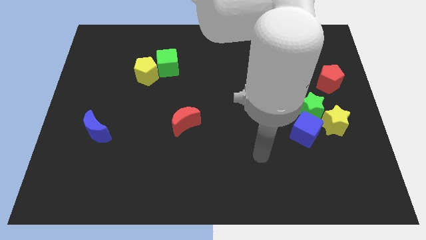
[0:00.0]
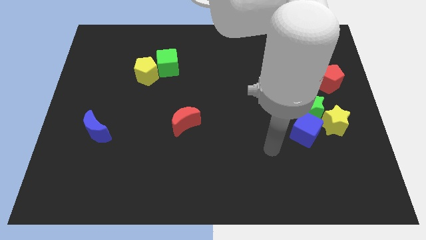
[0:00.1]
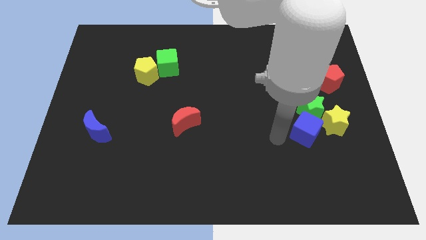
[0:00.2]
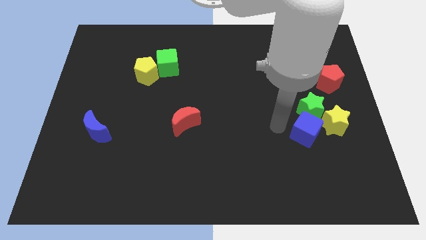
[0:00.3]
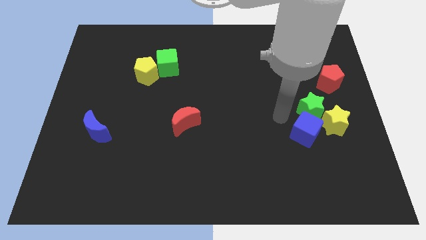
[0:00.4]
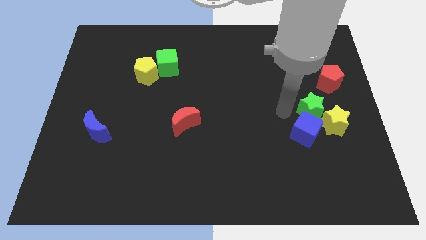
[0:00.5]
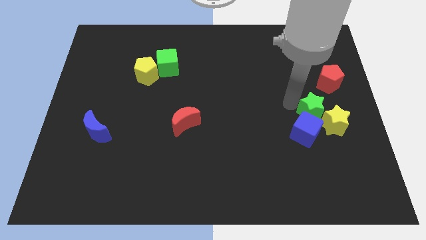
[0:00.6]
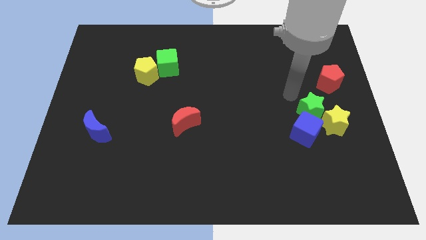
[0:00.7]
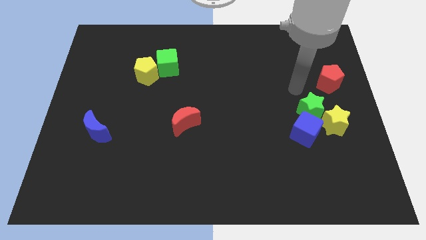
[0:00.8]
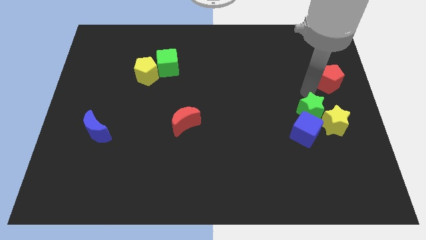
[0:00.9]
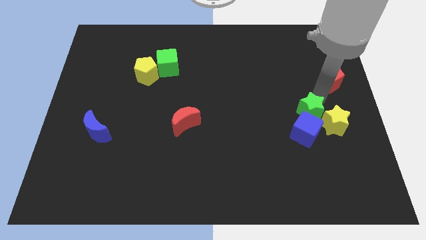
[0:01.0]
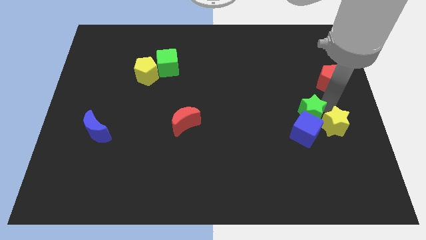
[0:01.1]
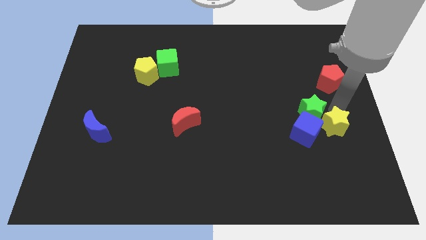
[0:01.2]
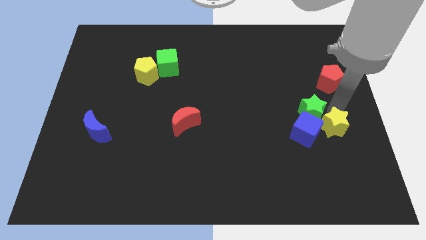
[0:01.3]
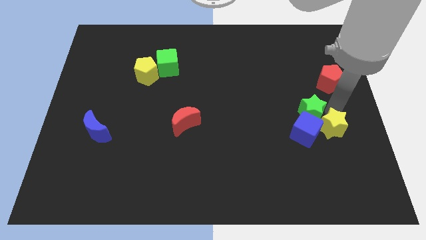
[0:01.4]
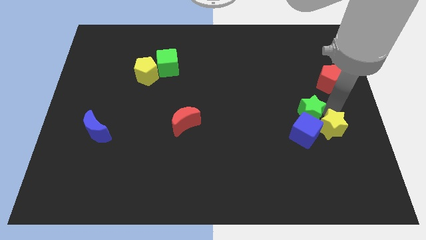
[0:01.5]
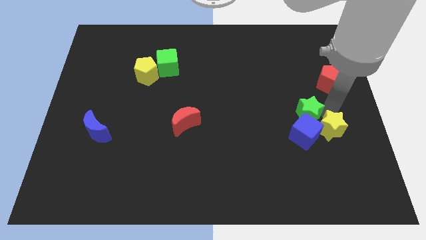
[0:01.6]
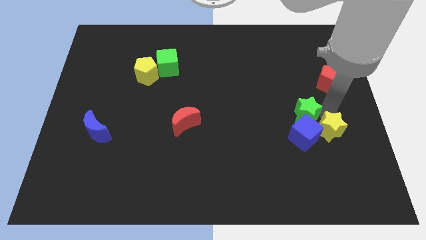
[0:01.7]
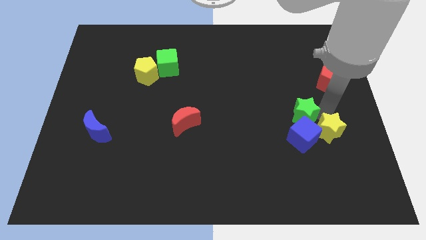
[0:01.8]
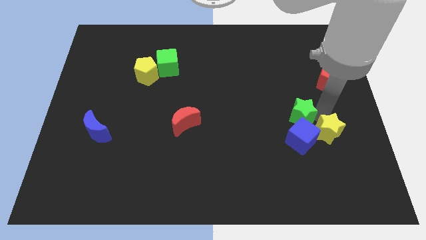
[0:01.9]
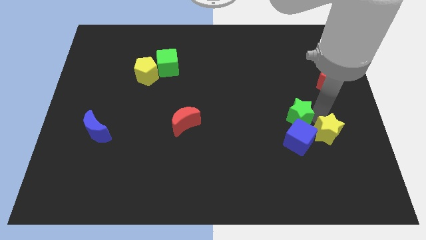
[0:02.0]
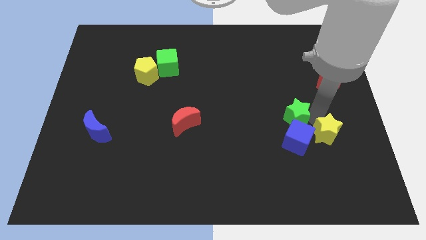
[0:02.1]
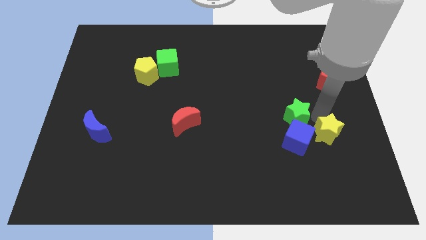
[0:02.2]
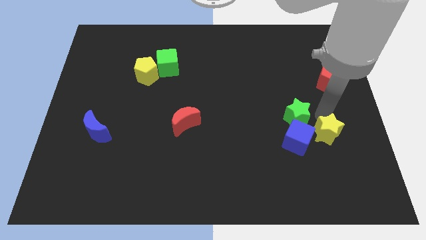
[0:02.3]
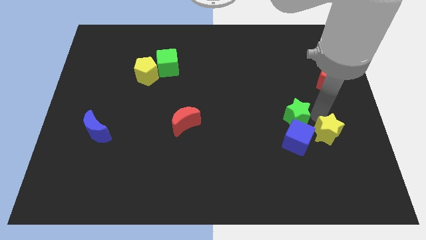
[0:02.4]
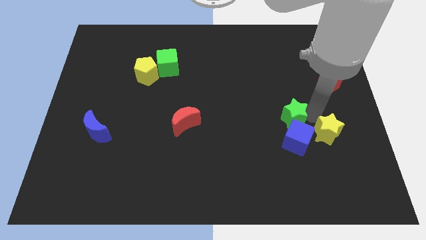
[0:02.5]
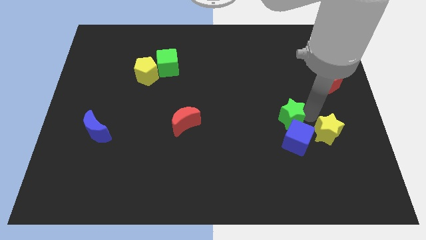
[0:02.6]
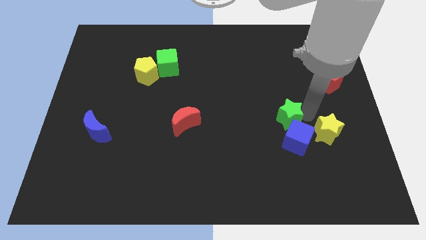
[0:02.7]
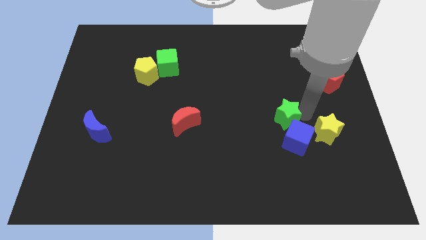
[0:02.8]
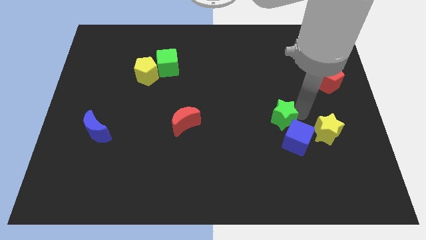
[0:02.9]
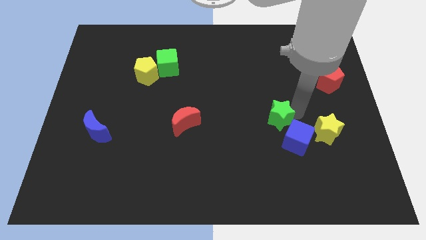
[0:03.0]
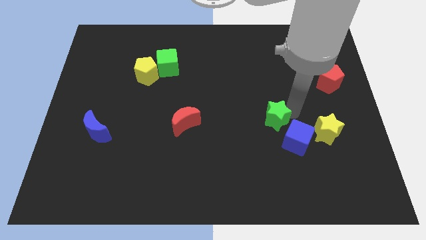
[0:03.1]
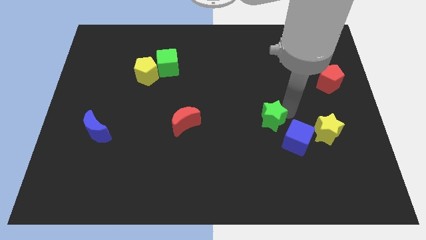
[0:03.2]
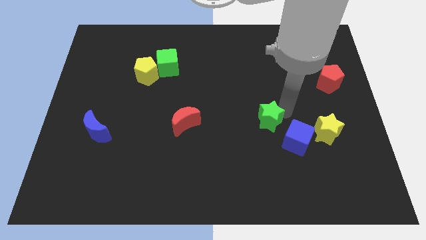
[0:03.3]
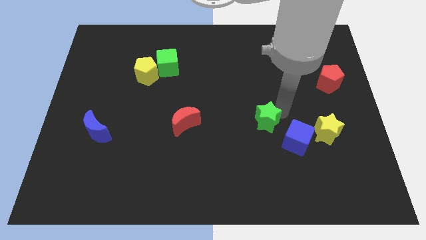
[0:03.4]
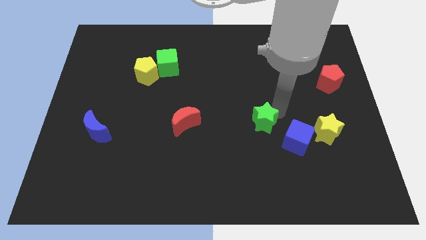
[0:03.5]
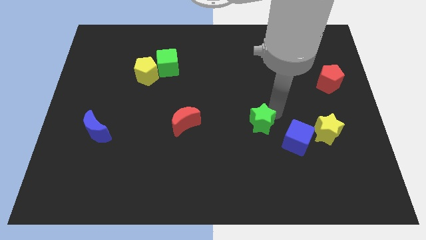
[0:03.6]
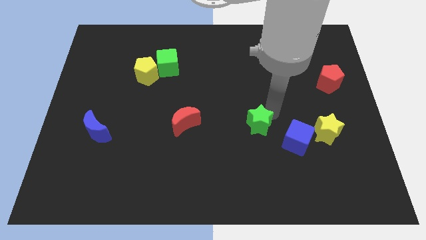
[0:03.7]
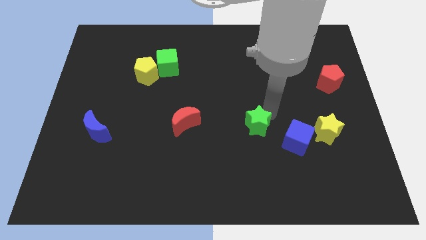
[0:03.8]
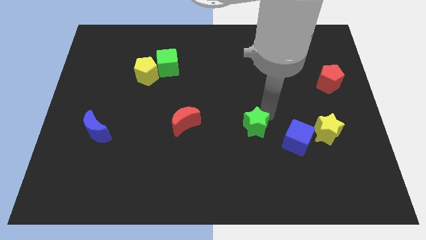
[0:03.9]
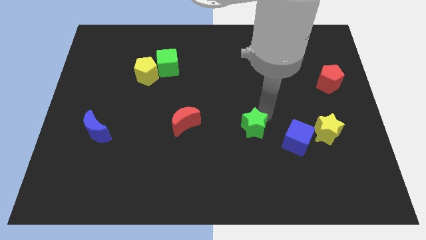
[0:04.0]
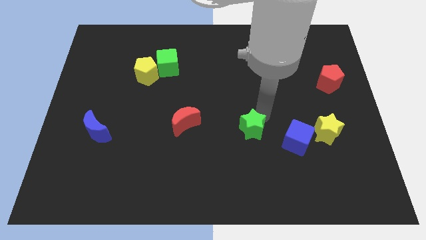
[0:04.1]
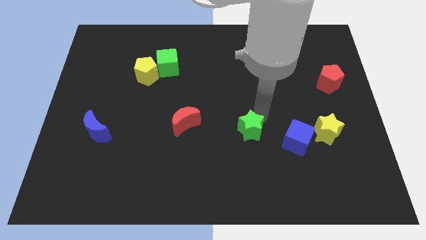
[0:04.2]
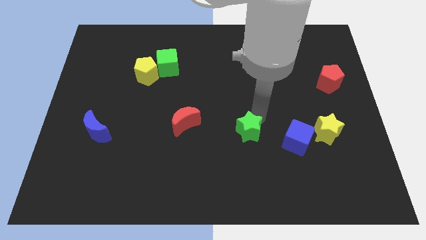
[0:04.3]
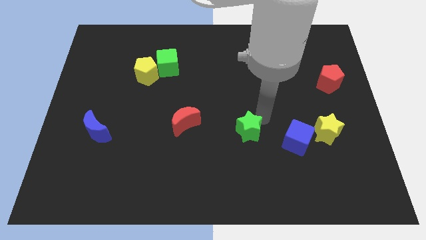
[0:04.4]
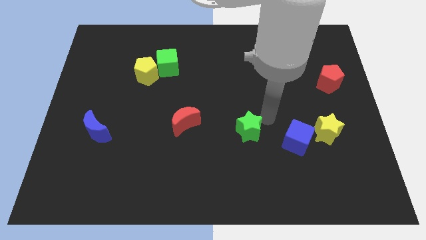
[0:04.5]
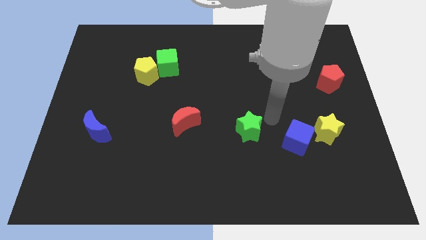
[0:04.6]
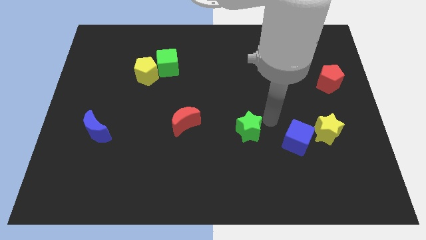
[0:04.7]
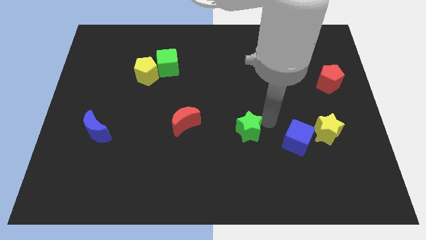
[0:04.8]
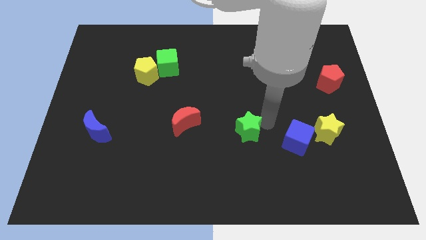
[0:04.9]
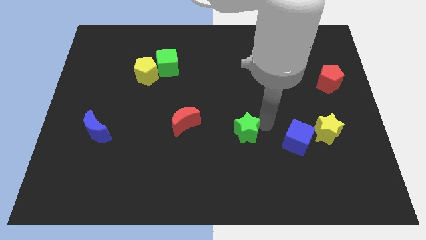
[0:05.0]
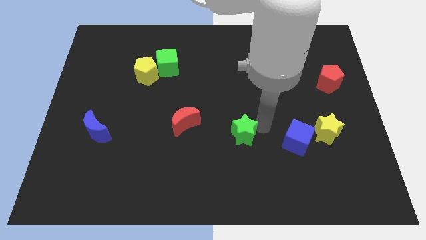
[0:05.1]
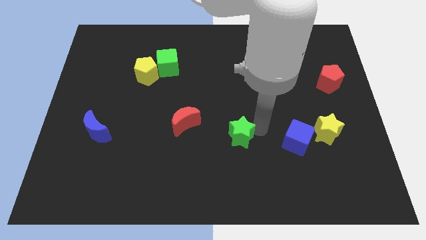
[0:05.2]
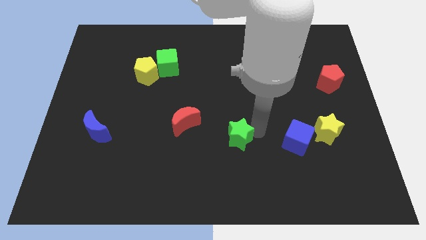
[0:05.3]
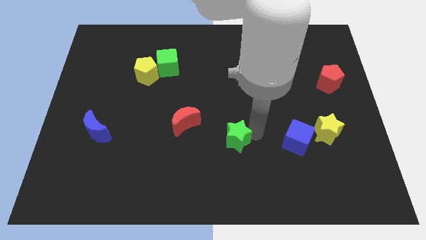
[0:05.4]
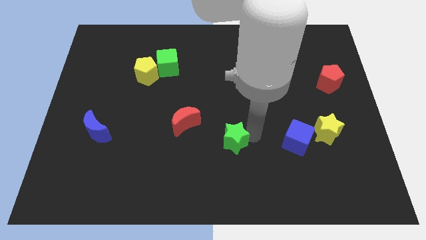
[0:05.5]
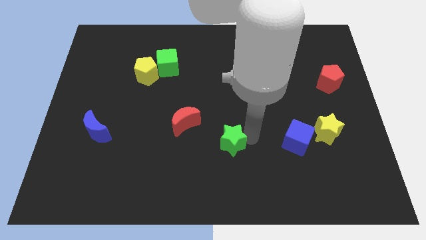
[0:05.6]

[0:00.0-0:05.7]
slide the green star to the bottom right side of the red moon

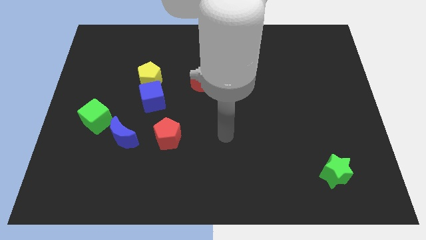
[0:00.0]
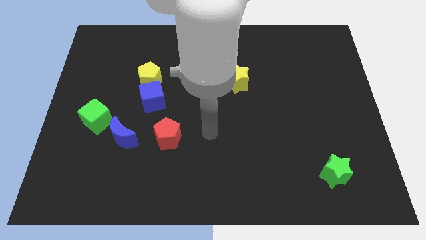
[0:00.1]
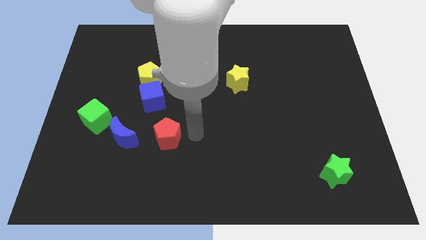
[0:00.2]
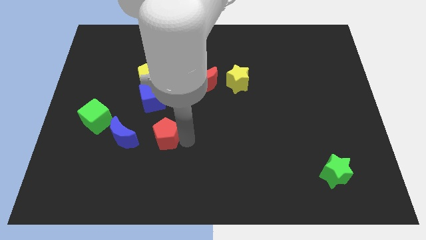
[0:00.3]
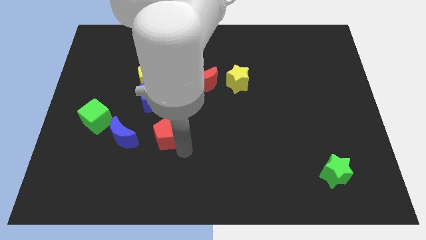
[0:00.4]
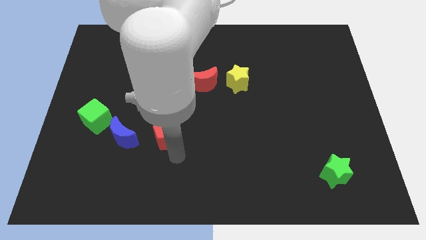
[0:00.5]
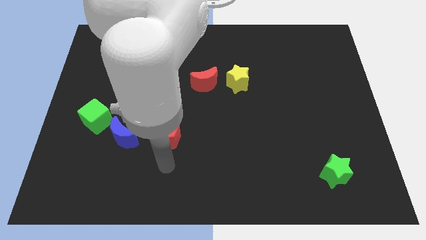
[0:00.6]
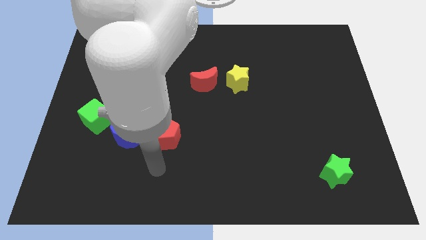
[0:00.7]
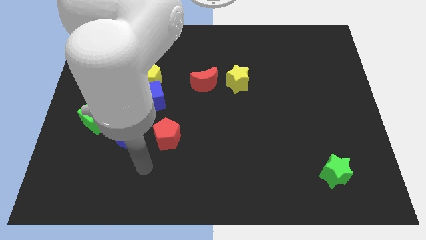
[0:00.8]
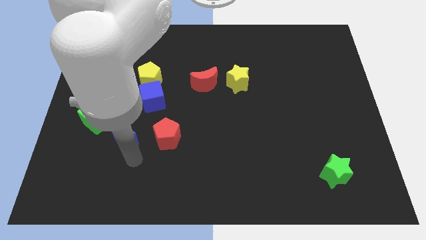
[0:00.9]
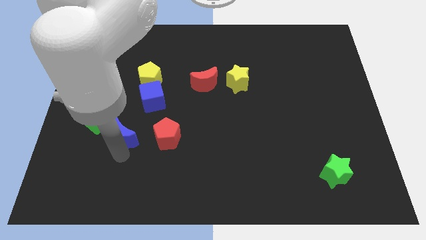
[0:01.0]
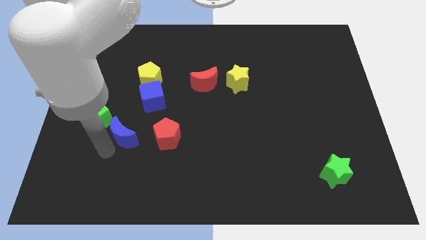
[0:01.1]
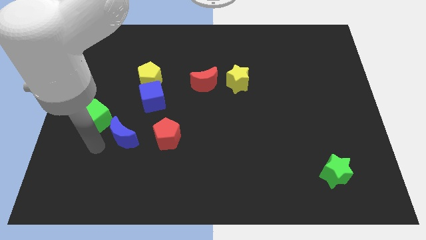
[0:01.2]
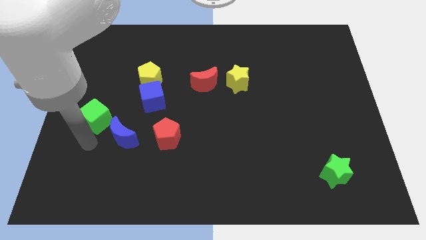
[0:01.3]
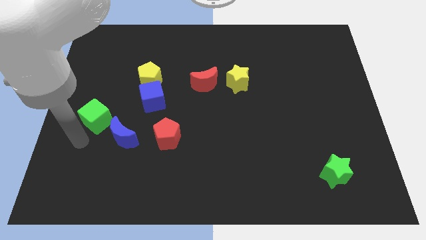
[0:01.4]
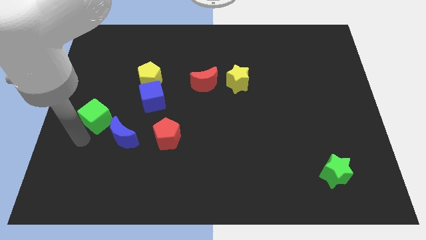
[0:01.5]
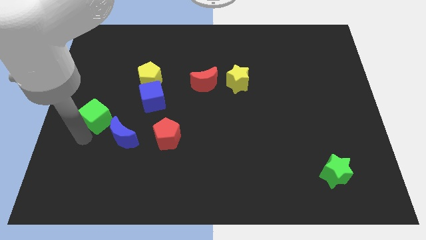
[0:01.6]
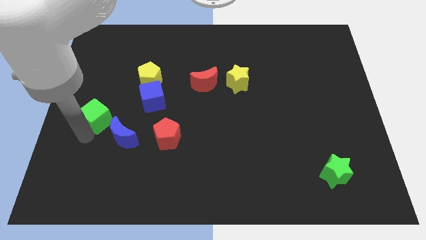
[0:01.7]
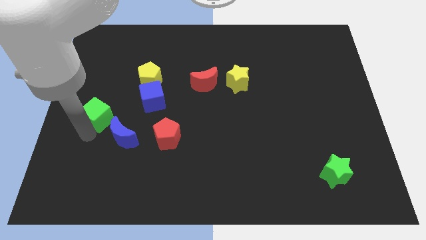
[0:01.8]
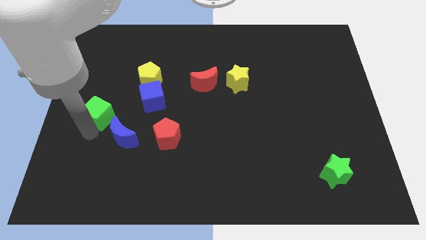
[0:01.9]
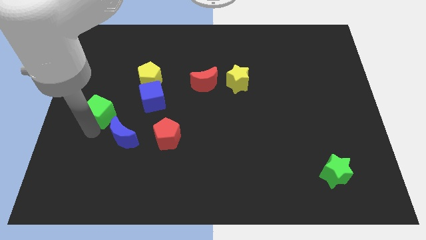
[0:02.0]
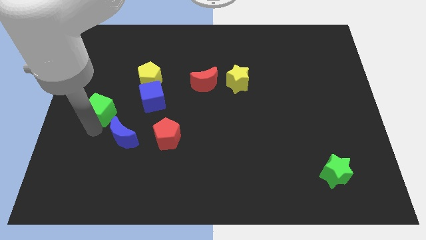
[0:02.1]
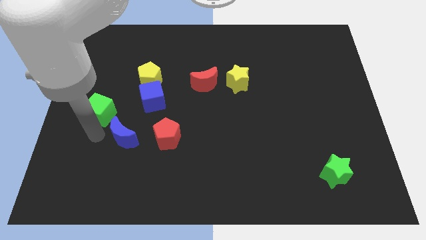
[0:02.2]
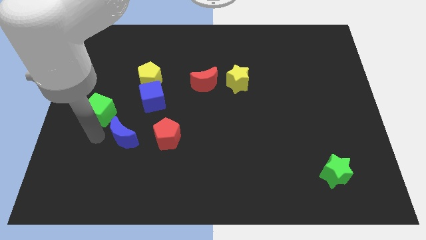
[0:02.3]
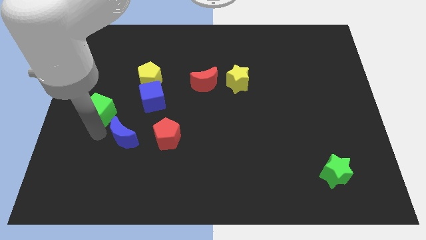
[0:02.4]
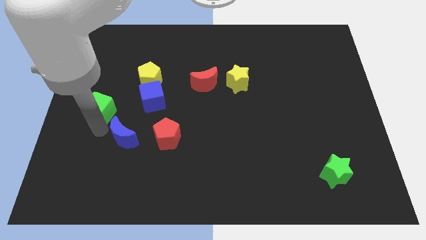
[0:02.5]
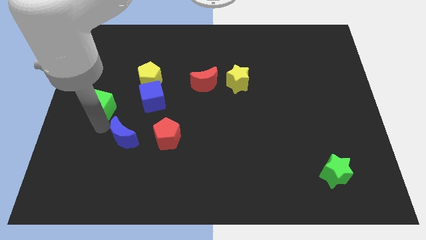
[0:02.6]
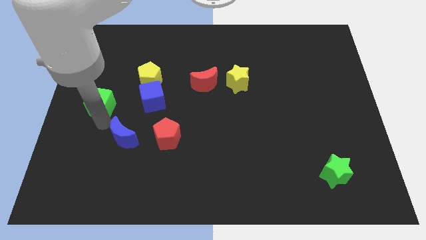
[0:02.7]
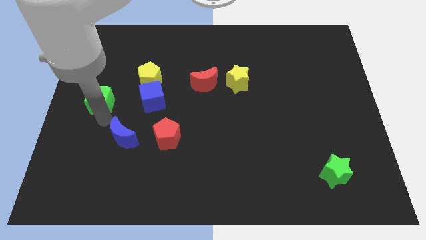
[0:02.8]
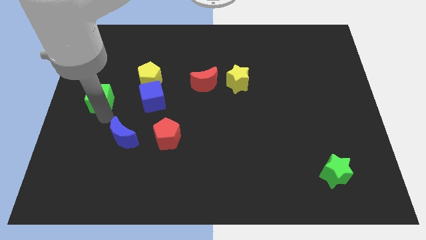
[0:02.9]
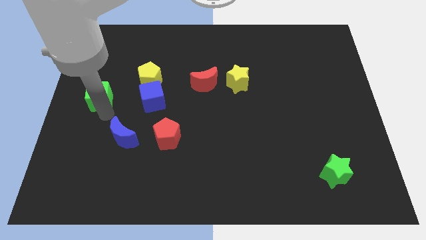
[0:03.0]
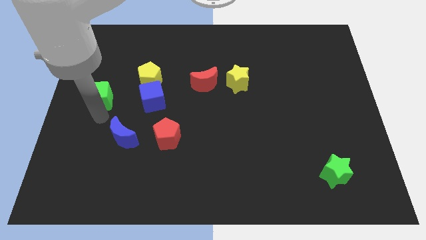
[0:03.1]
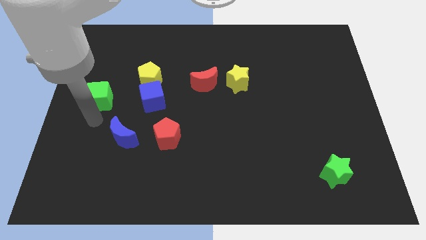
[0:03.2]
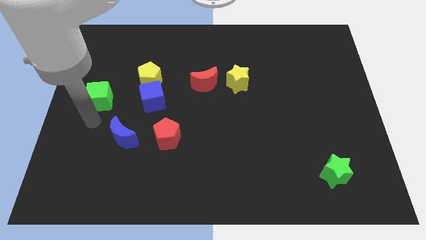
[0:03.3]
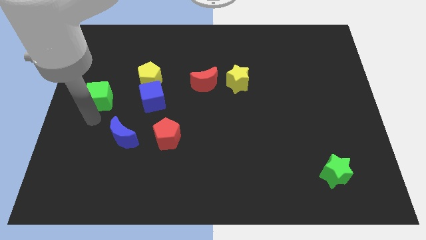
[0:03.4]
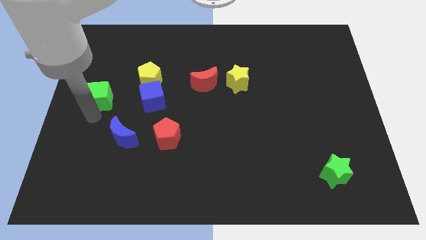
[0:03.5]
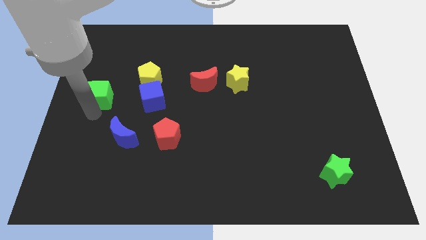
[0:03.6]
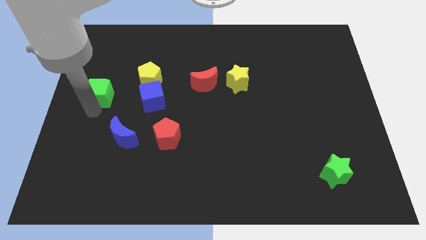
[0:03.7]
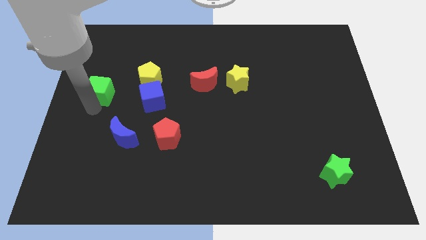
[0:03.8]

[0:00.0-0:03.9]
push the green cube to the left of the yellow pentagon
